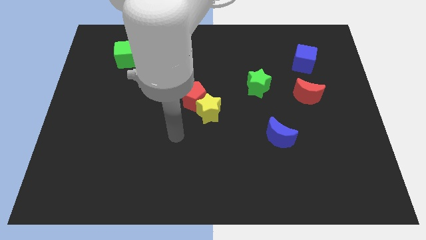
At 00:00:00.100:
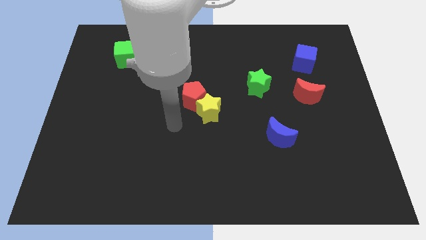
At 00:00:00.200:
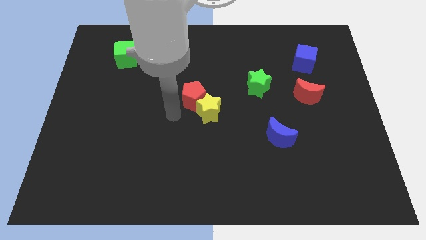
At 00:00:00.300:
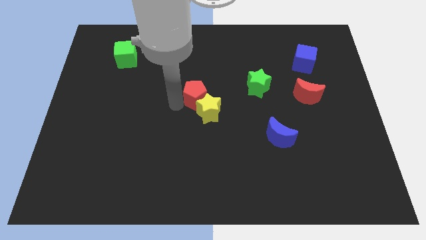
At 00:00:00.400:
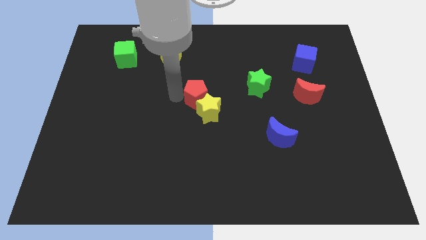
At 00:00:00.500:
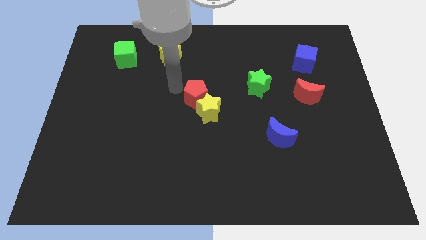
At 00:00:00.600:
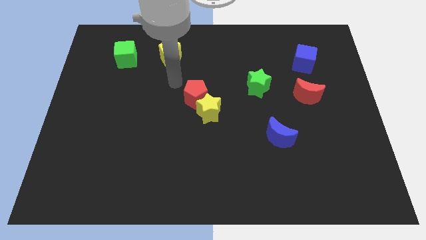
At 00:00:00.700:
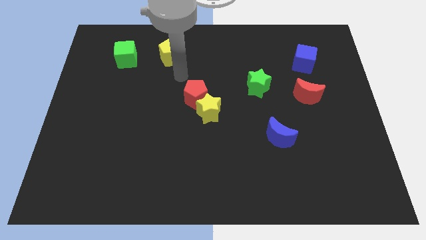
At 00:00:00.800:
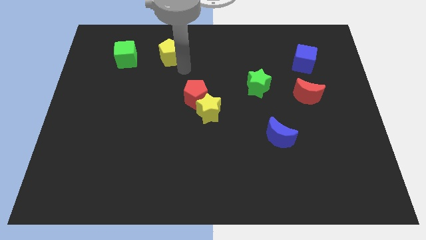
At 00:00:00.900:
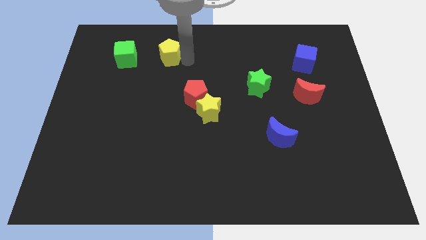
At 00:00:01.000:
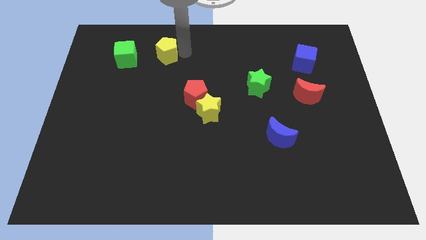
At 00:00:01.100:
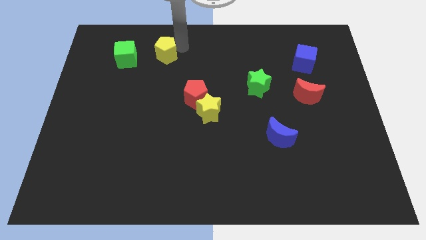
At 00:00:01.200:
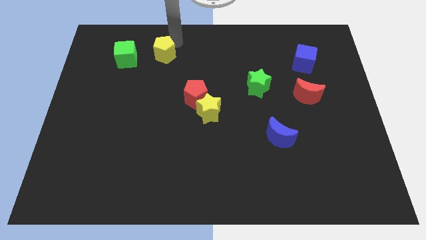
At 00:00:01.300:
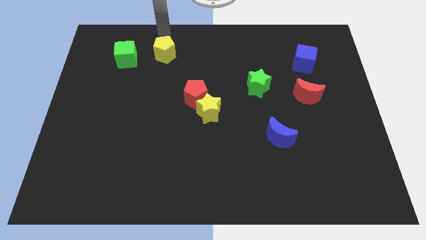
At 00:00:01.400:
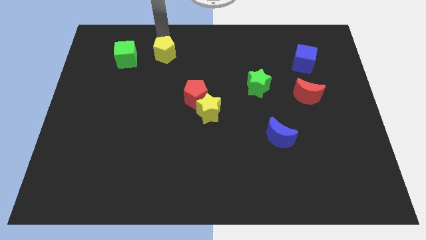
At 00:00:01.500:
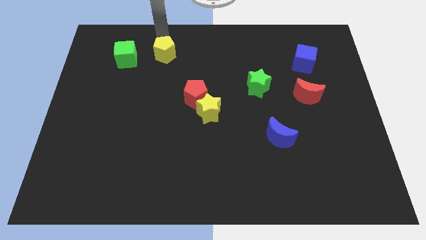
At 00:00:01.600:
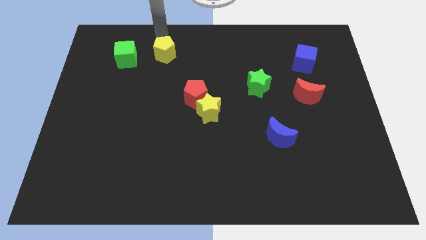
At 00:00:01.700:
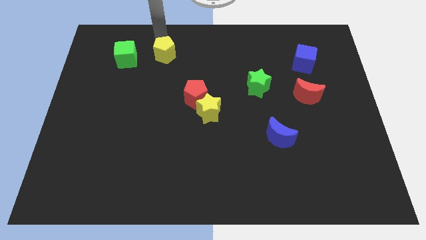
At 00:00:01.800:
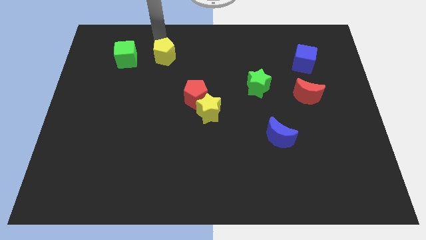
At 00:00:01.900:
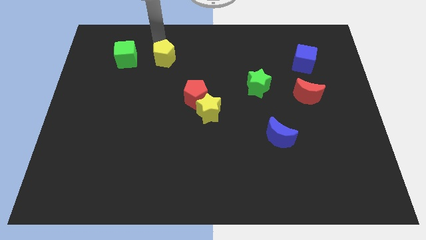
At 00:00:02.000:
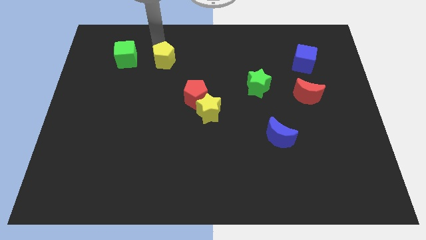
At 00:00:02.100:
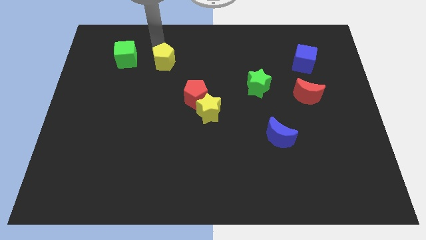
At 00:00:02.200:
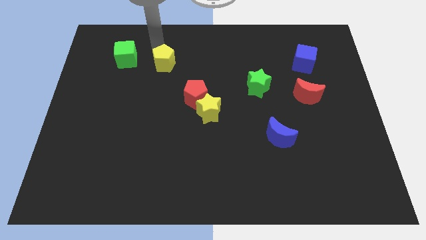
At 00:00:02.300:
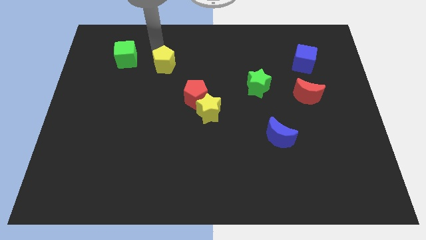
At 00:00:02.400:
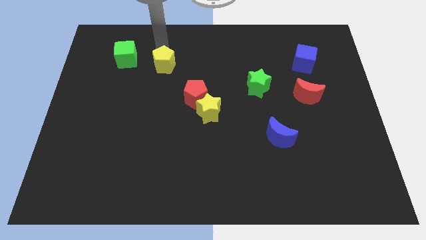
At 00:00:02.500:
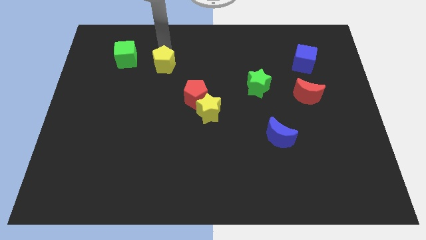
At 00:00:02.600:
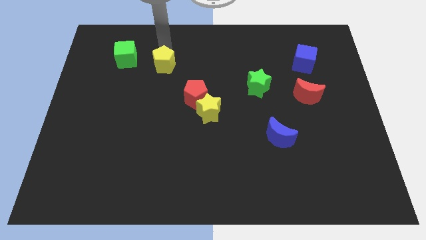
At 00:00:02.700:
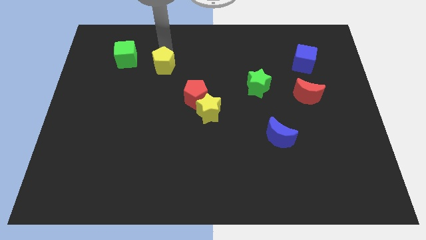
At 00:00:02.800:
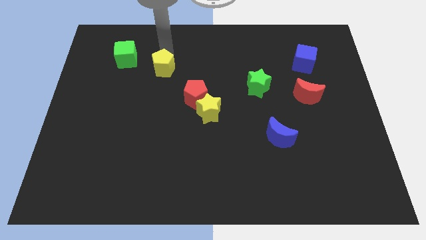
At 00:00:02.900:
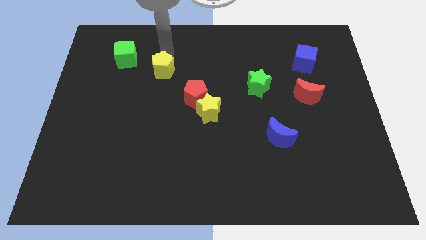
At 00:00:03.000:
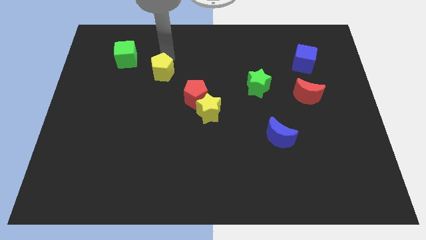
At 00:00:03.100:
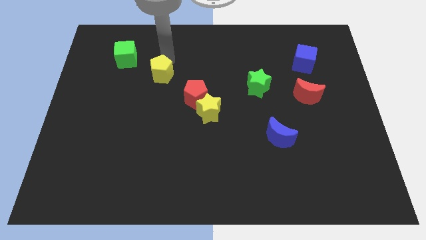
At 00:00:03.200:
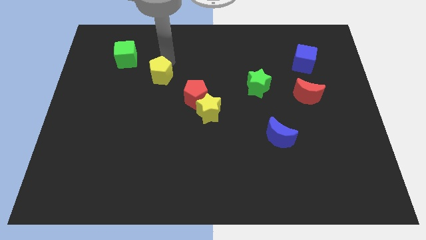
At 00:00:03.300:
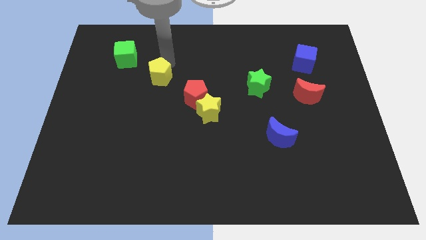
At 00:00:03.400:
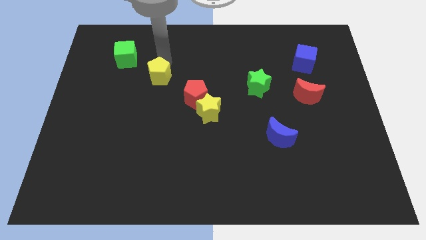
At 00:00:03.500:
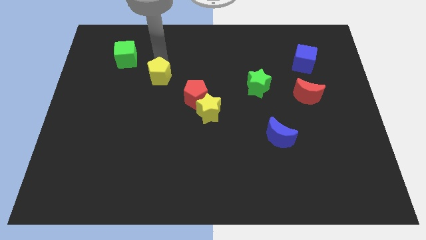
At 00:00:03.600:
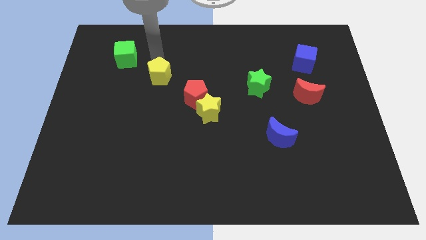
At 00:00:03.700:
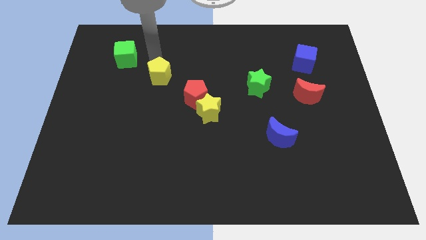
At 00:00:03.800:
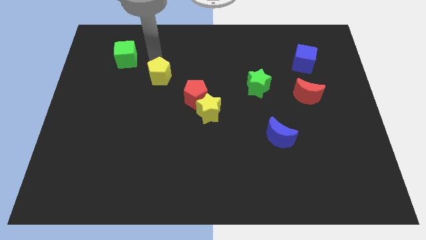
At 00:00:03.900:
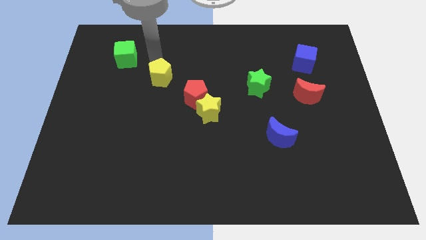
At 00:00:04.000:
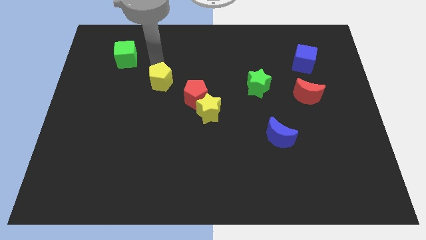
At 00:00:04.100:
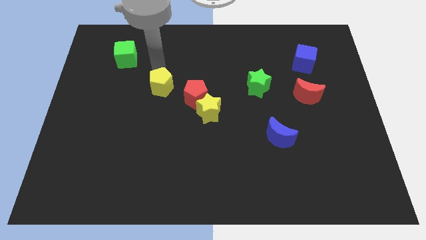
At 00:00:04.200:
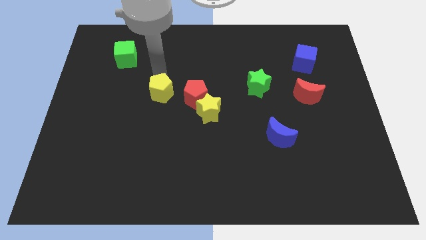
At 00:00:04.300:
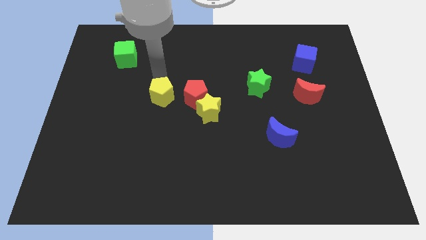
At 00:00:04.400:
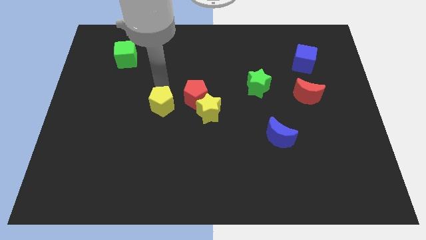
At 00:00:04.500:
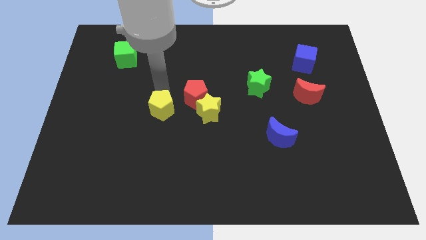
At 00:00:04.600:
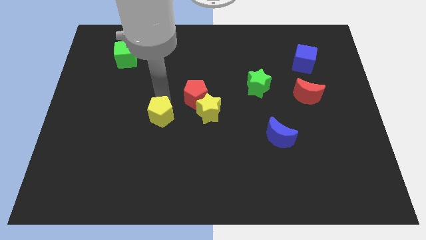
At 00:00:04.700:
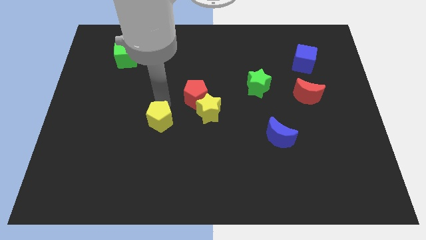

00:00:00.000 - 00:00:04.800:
slide the yellow pentagon downwards

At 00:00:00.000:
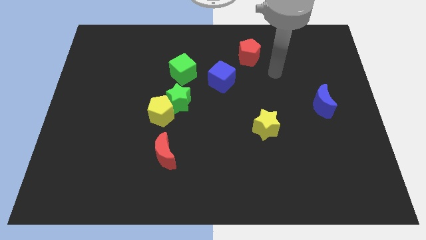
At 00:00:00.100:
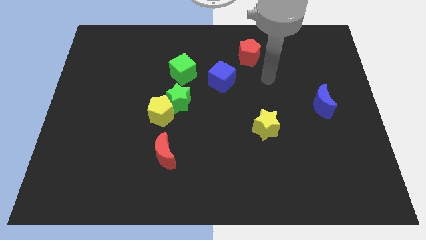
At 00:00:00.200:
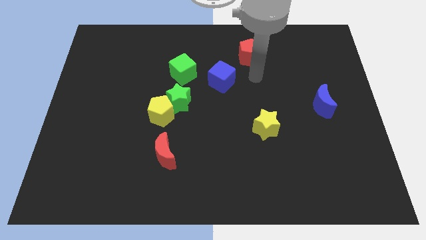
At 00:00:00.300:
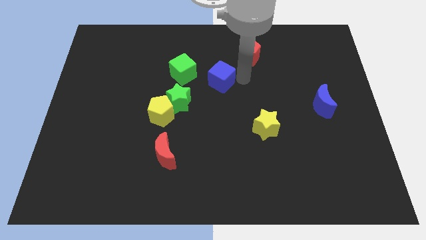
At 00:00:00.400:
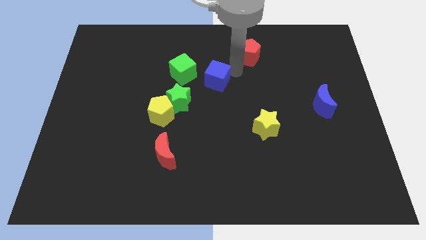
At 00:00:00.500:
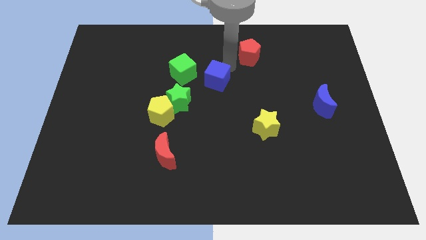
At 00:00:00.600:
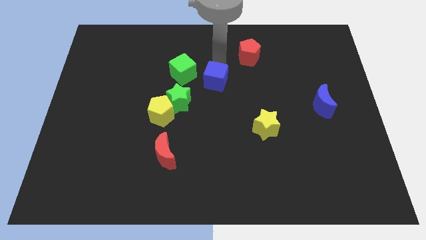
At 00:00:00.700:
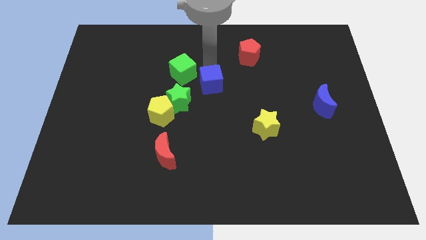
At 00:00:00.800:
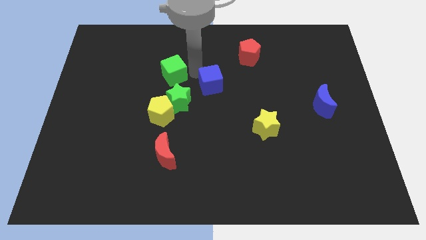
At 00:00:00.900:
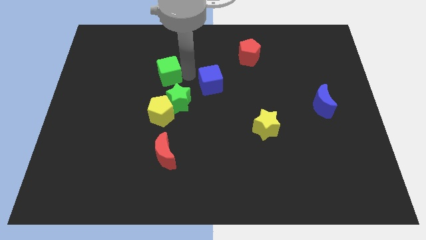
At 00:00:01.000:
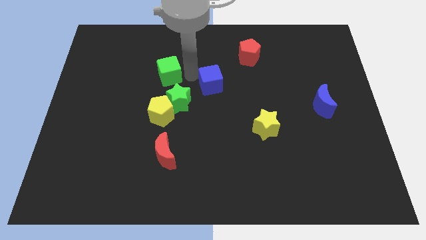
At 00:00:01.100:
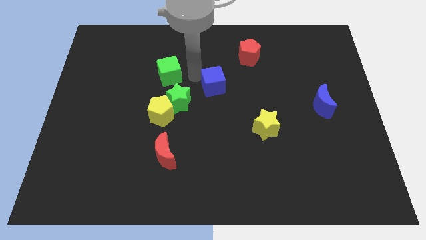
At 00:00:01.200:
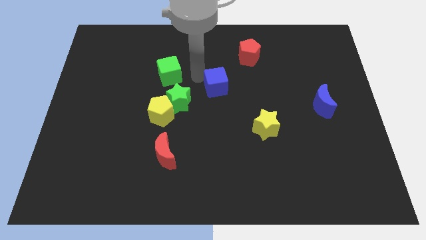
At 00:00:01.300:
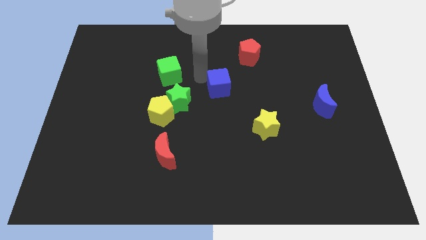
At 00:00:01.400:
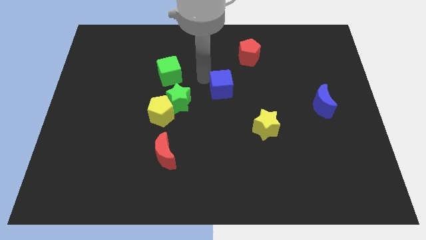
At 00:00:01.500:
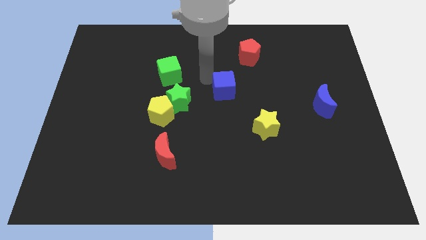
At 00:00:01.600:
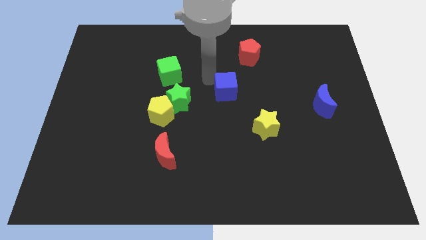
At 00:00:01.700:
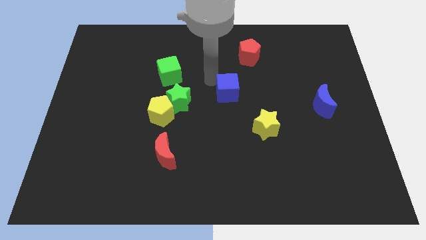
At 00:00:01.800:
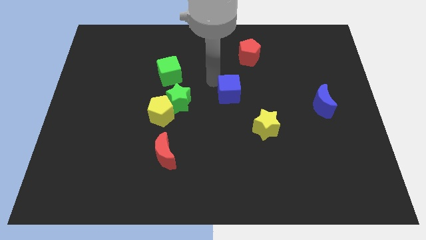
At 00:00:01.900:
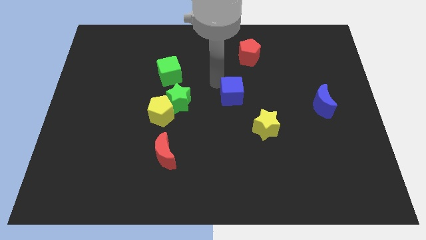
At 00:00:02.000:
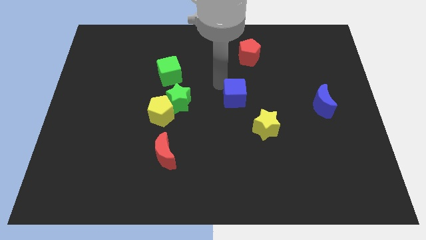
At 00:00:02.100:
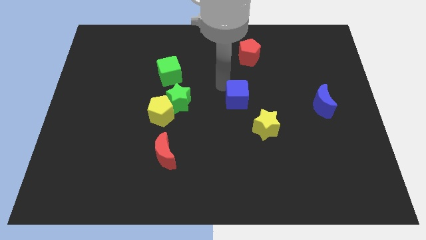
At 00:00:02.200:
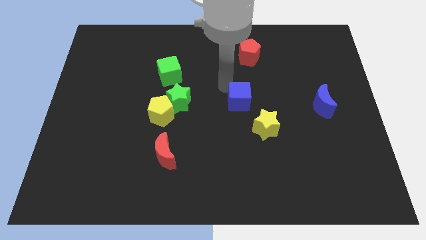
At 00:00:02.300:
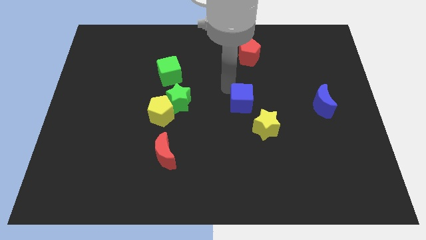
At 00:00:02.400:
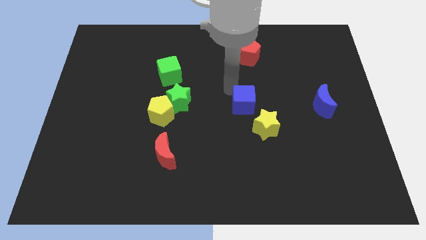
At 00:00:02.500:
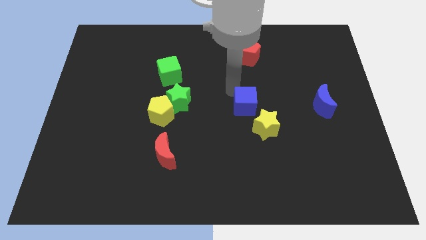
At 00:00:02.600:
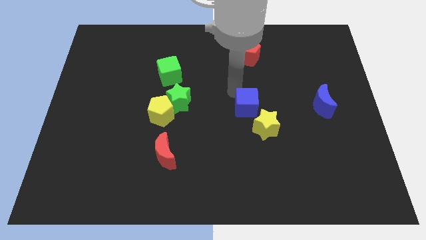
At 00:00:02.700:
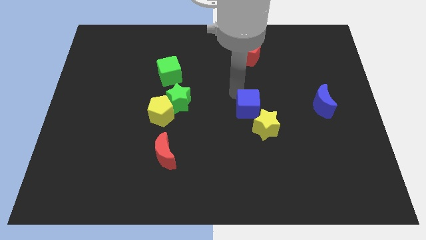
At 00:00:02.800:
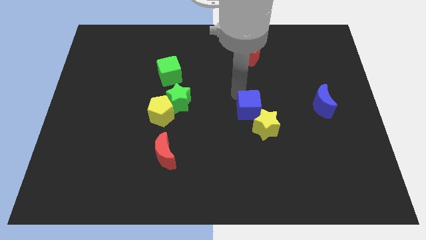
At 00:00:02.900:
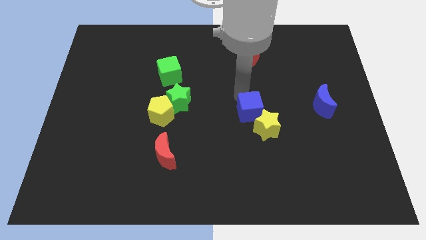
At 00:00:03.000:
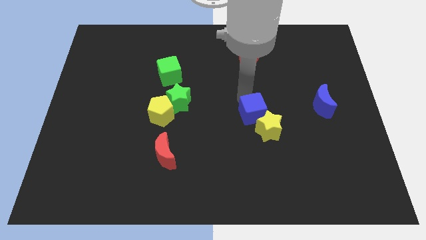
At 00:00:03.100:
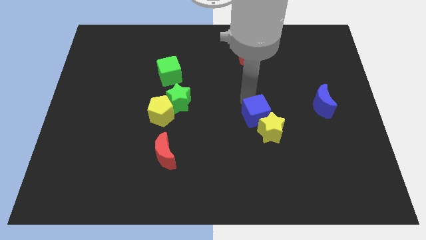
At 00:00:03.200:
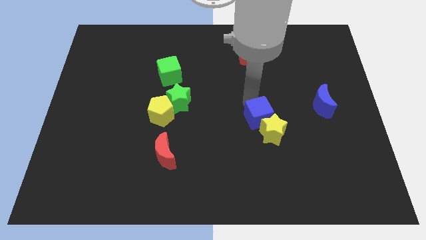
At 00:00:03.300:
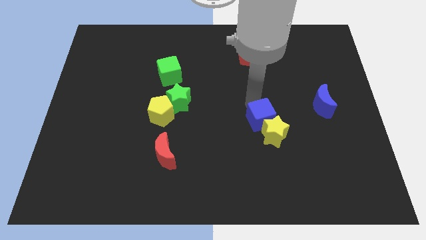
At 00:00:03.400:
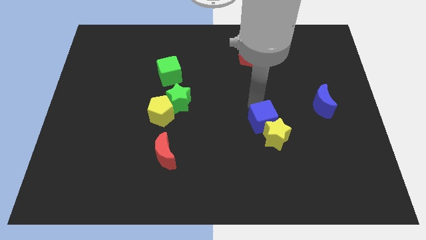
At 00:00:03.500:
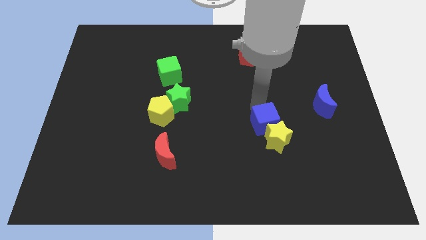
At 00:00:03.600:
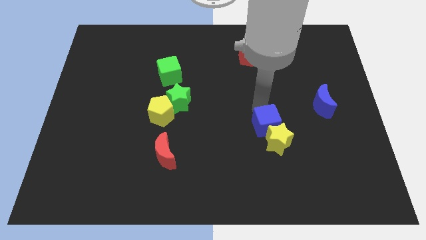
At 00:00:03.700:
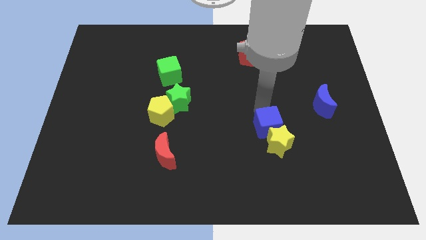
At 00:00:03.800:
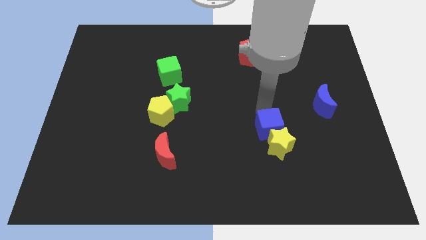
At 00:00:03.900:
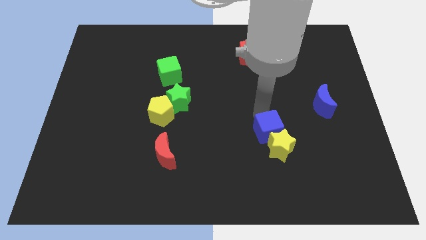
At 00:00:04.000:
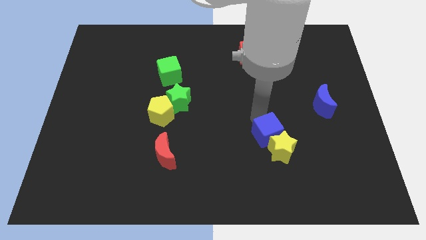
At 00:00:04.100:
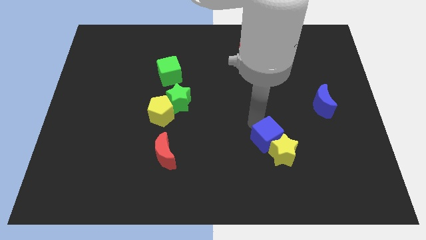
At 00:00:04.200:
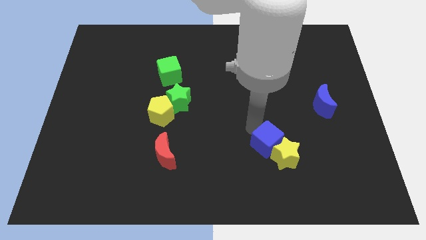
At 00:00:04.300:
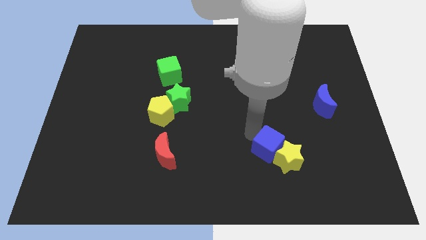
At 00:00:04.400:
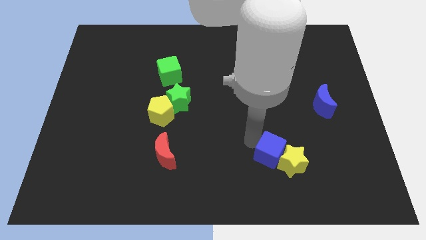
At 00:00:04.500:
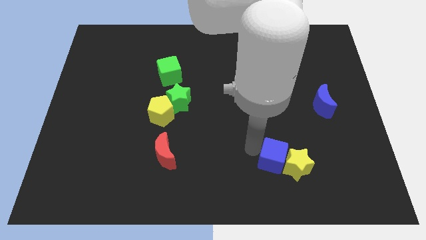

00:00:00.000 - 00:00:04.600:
move the blue cube downwards and then to the right
